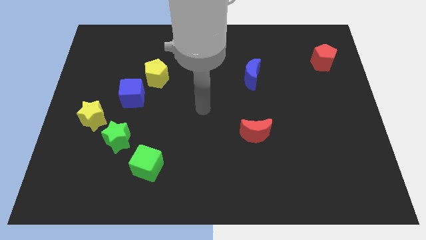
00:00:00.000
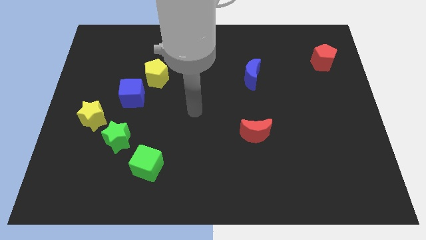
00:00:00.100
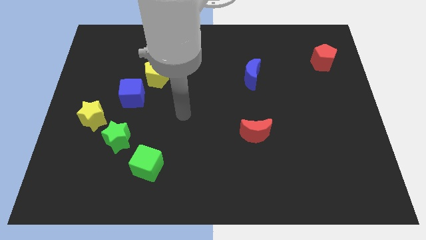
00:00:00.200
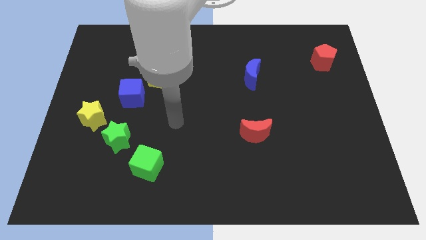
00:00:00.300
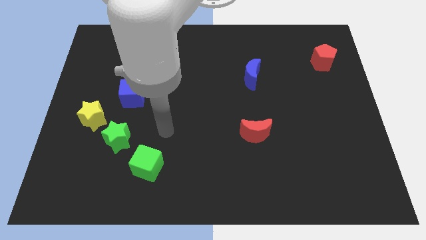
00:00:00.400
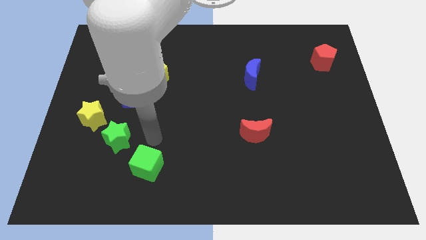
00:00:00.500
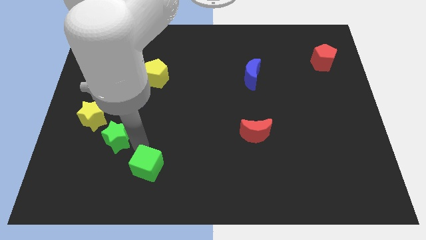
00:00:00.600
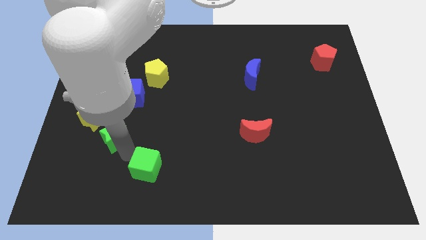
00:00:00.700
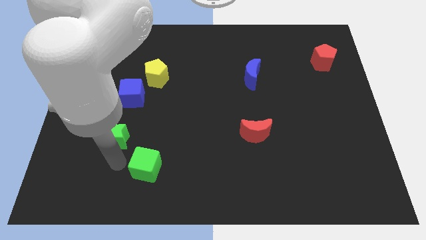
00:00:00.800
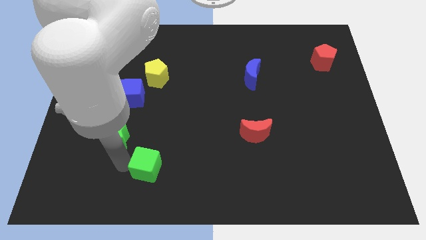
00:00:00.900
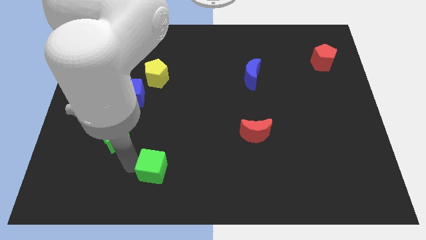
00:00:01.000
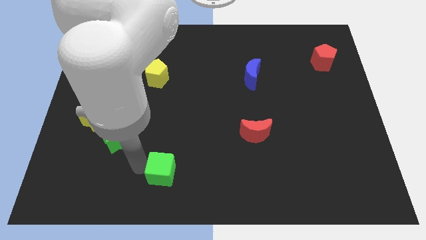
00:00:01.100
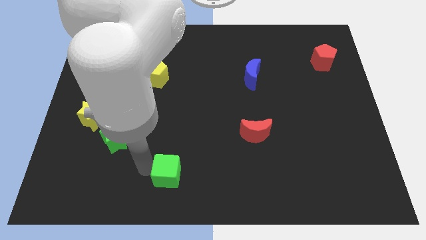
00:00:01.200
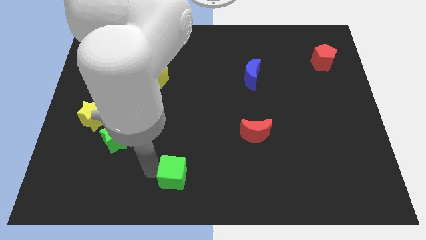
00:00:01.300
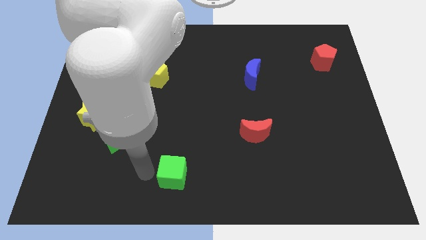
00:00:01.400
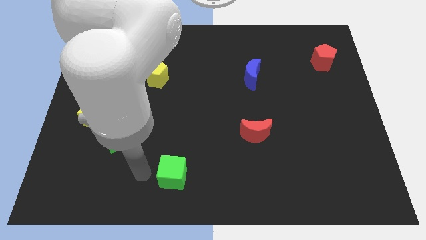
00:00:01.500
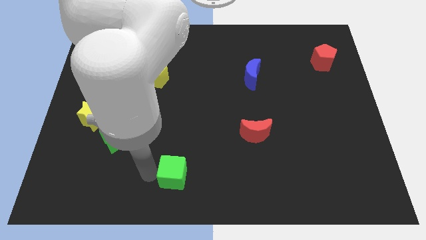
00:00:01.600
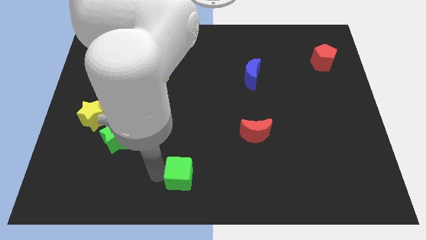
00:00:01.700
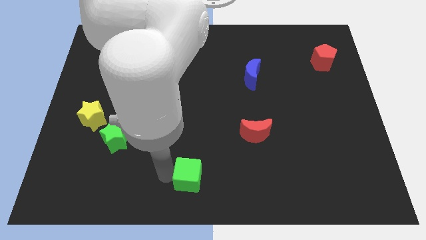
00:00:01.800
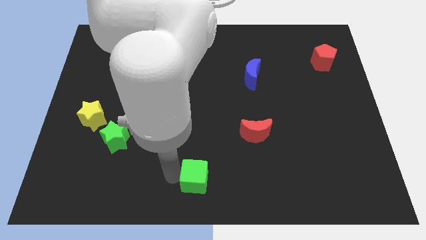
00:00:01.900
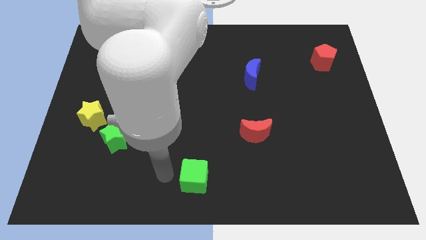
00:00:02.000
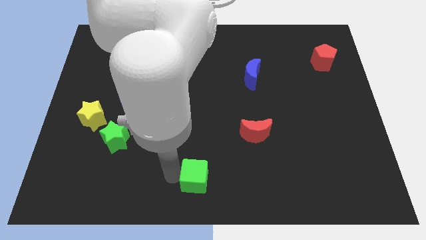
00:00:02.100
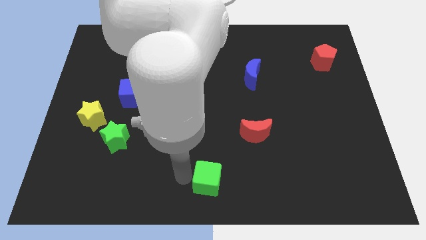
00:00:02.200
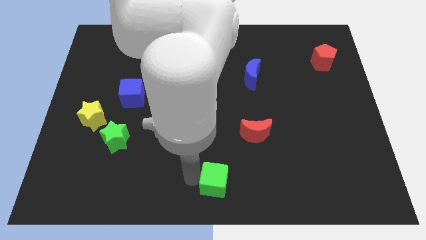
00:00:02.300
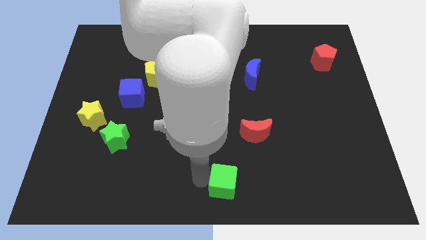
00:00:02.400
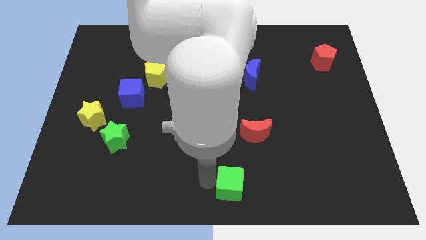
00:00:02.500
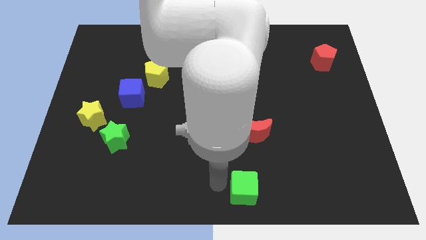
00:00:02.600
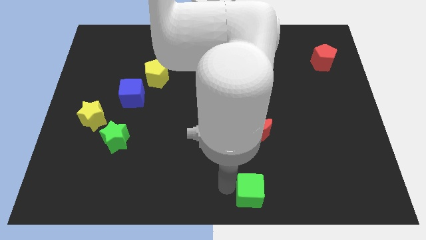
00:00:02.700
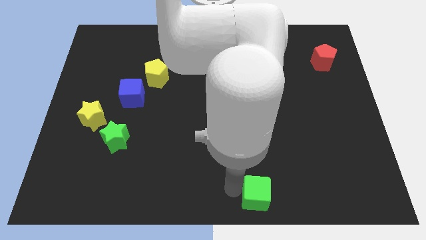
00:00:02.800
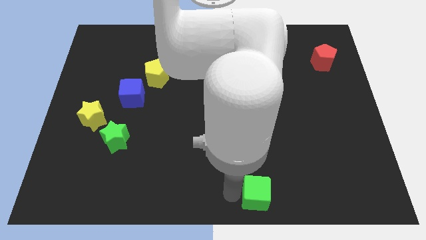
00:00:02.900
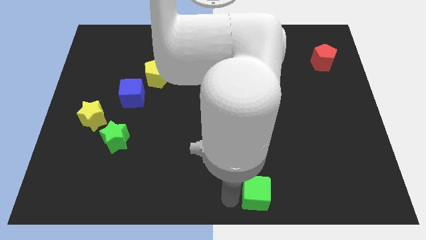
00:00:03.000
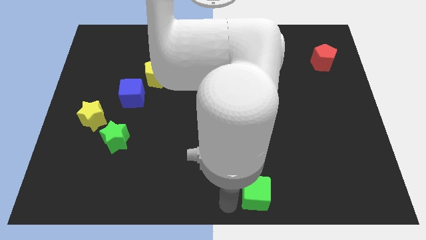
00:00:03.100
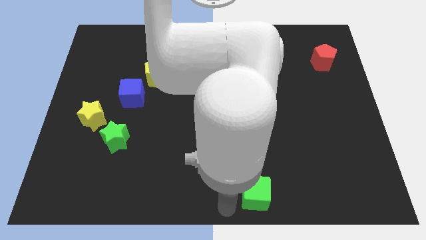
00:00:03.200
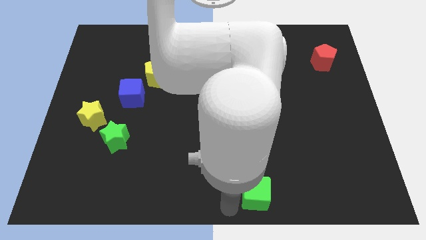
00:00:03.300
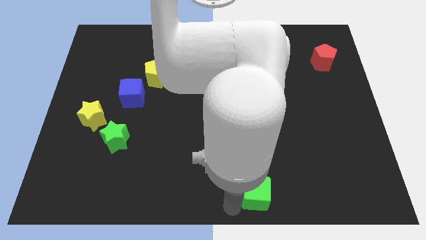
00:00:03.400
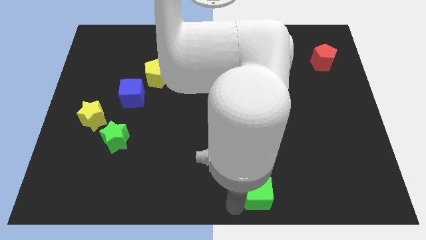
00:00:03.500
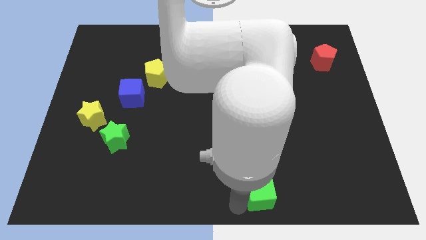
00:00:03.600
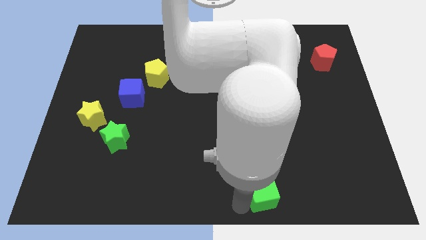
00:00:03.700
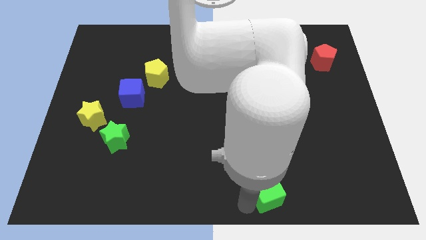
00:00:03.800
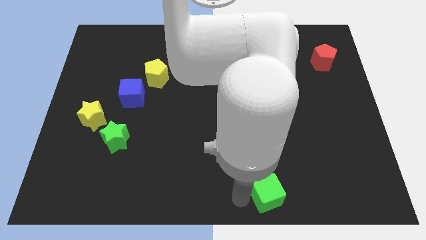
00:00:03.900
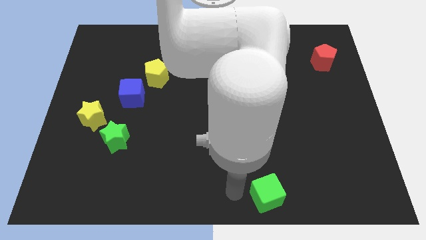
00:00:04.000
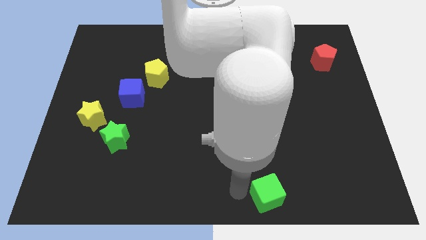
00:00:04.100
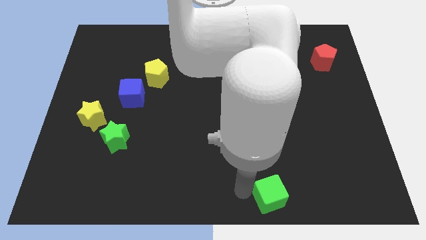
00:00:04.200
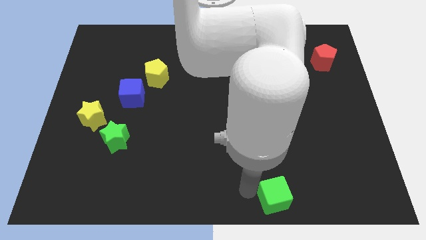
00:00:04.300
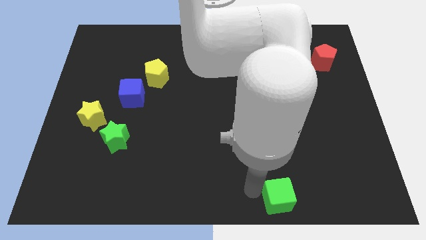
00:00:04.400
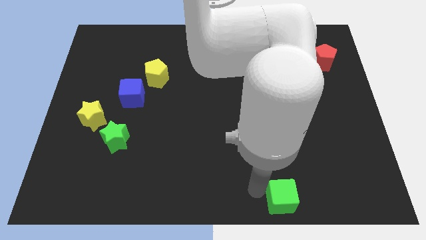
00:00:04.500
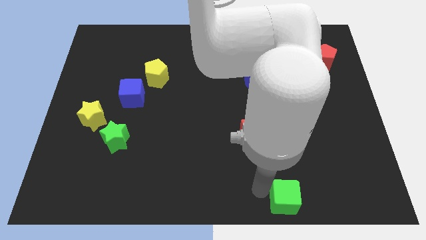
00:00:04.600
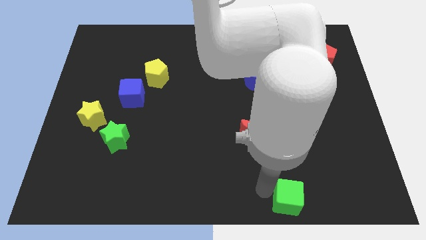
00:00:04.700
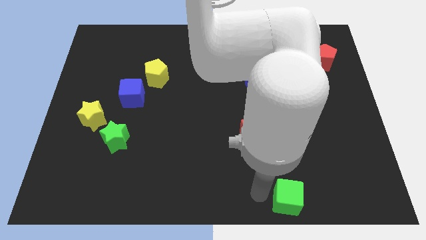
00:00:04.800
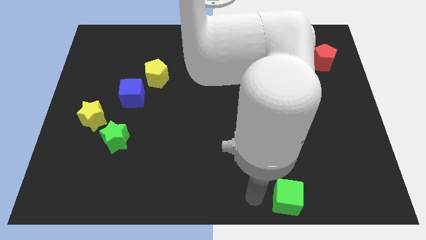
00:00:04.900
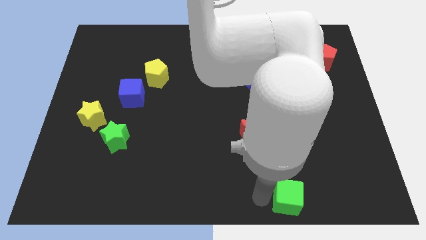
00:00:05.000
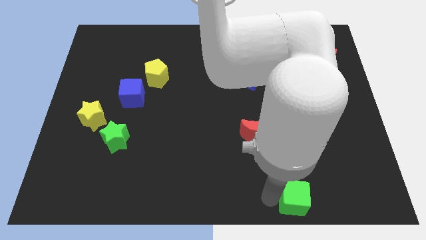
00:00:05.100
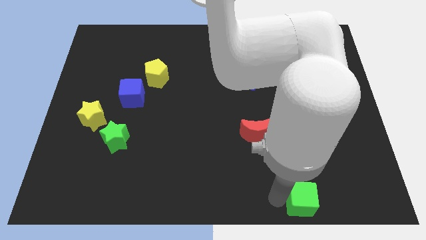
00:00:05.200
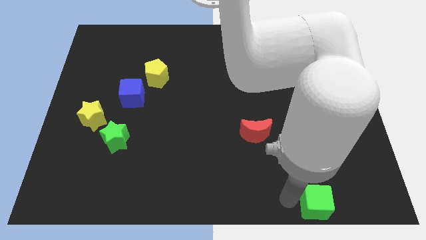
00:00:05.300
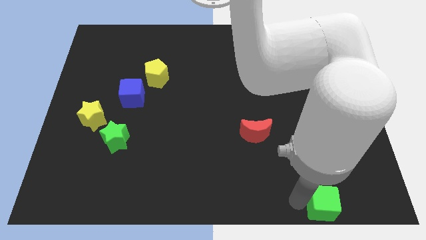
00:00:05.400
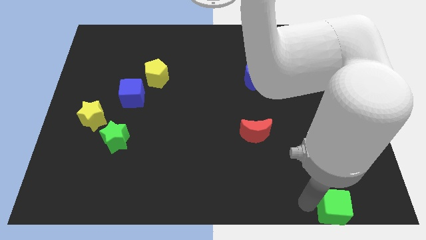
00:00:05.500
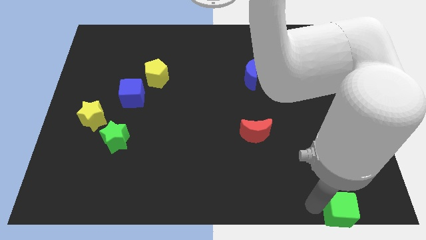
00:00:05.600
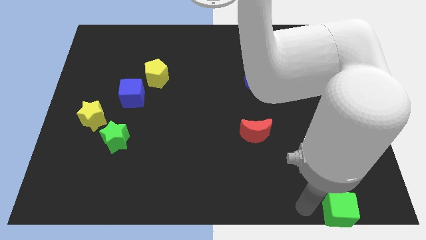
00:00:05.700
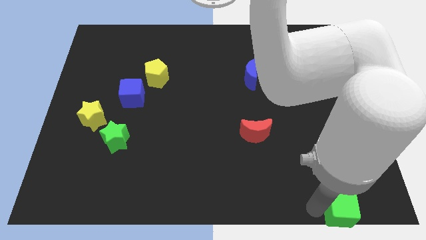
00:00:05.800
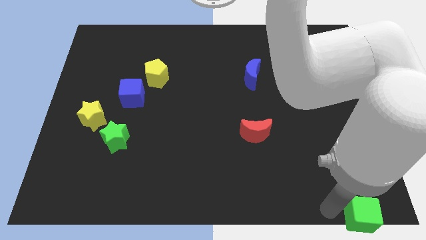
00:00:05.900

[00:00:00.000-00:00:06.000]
put the green cube to the bottom right

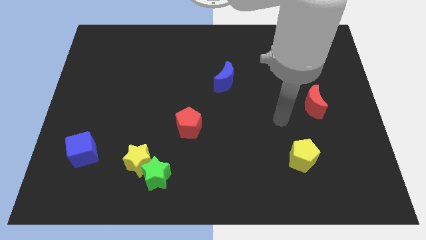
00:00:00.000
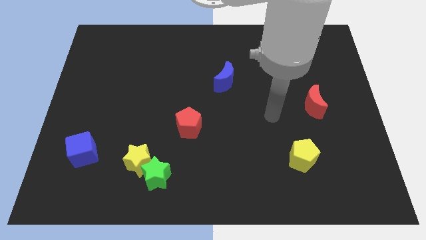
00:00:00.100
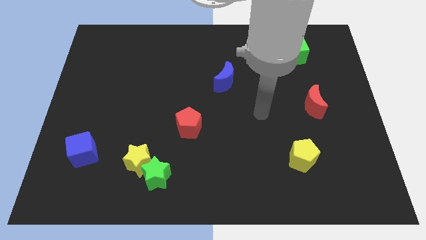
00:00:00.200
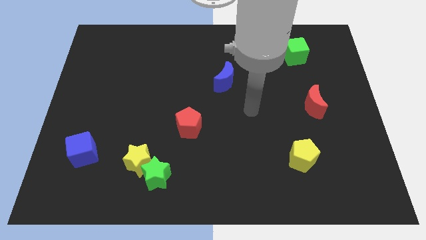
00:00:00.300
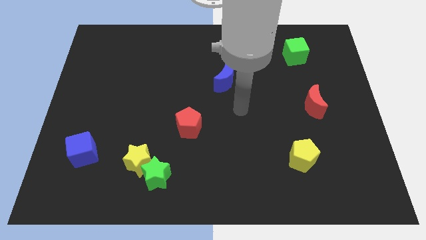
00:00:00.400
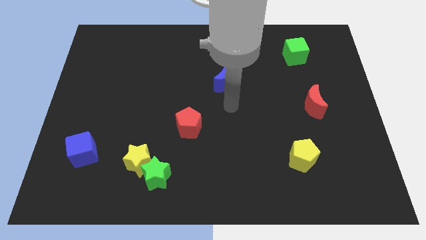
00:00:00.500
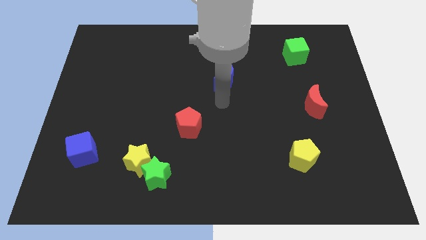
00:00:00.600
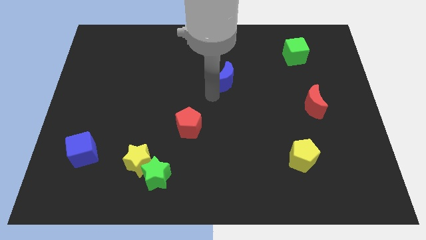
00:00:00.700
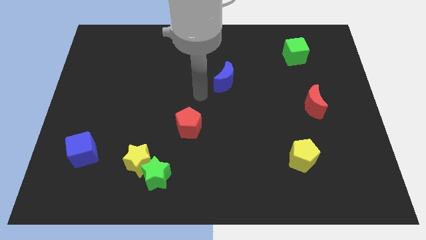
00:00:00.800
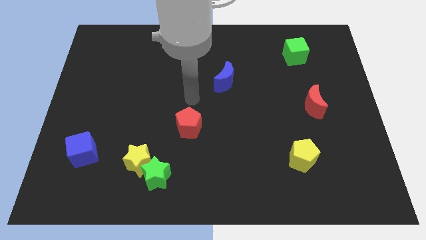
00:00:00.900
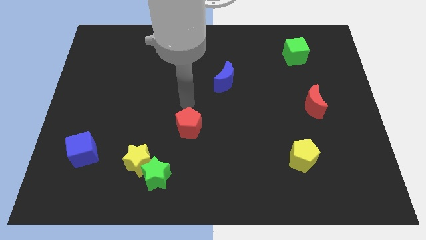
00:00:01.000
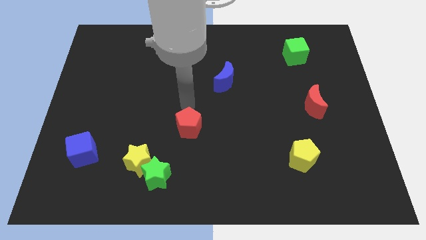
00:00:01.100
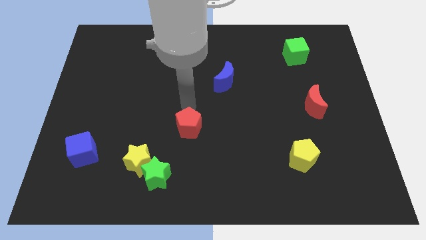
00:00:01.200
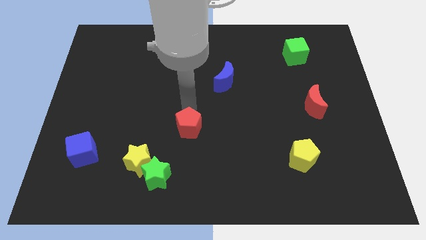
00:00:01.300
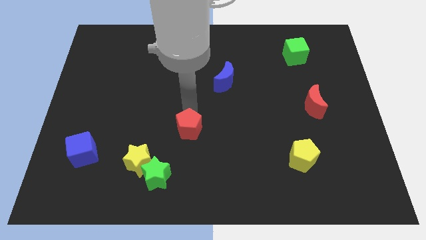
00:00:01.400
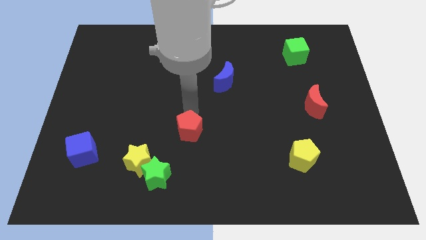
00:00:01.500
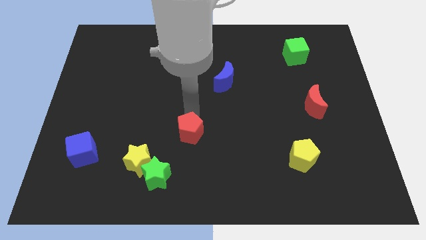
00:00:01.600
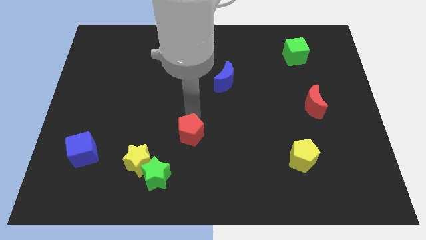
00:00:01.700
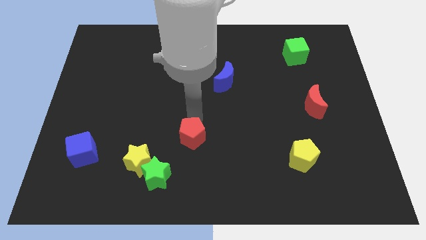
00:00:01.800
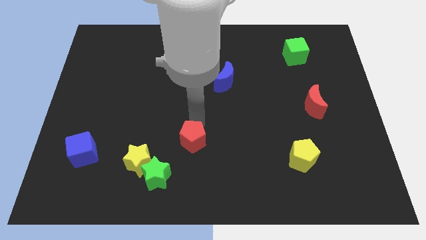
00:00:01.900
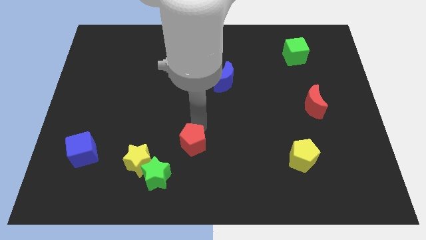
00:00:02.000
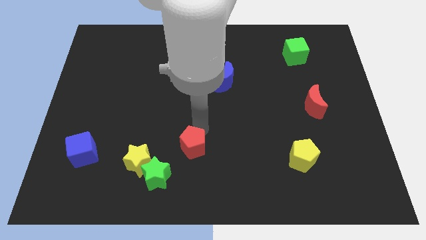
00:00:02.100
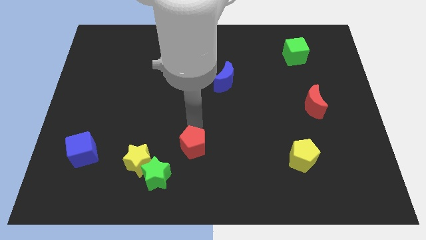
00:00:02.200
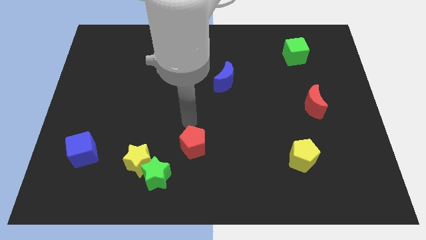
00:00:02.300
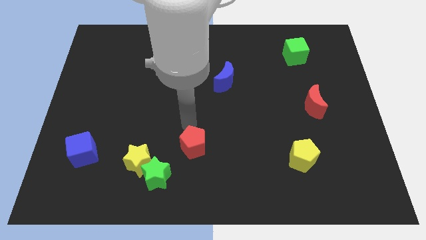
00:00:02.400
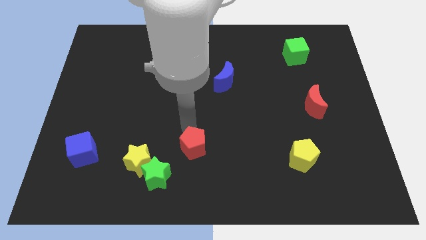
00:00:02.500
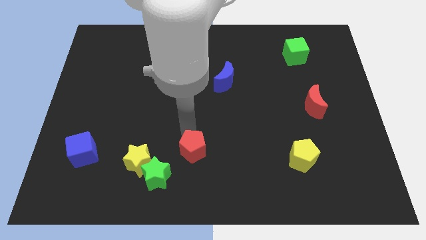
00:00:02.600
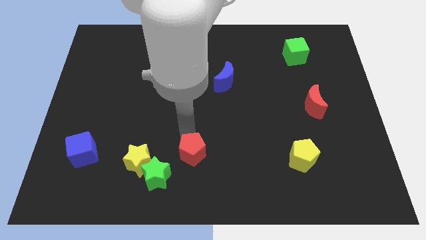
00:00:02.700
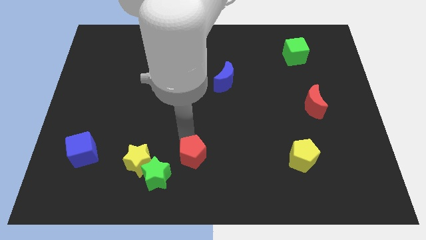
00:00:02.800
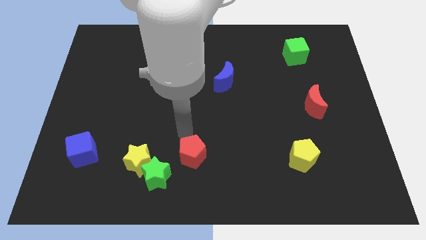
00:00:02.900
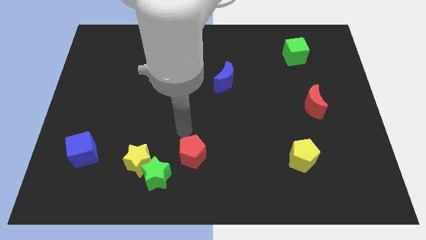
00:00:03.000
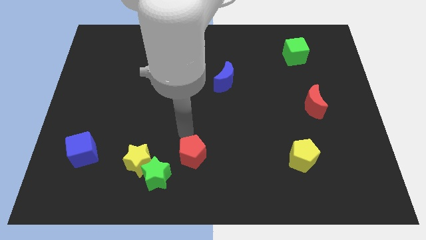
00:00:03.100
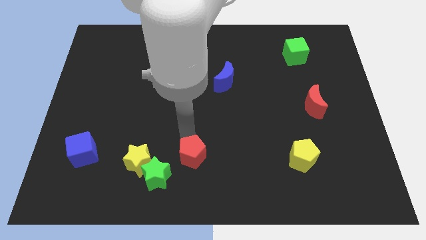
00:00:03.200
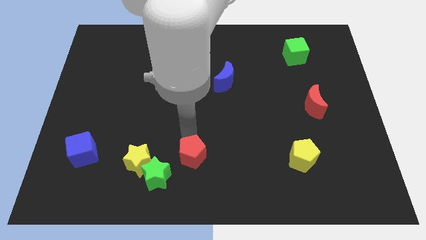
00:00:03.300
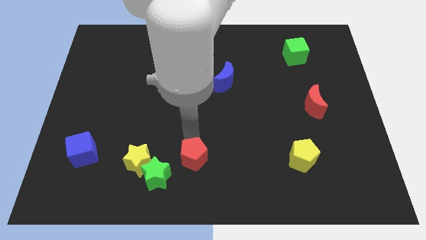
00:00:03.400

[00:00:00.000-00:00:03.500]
put the red pentagon to the bottom
